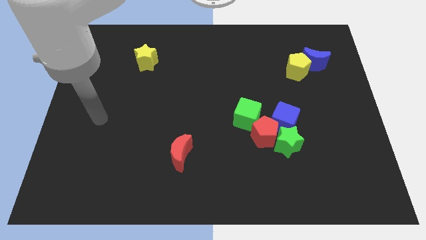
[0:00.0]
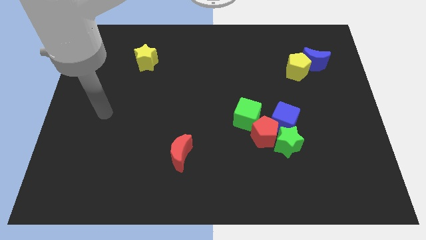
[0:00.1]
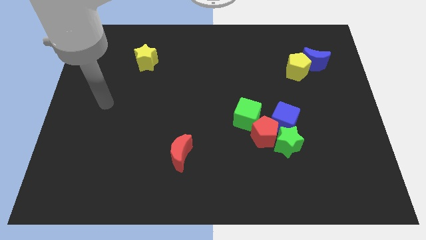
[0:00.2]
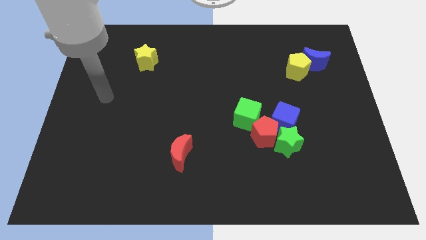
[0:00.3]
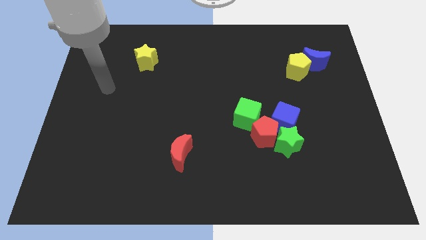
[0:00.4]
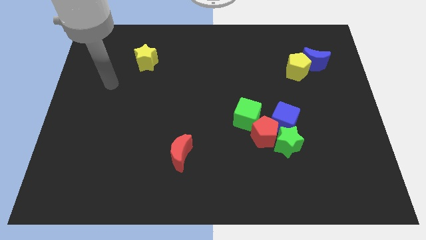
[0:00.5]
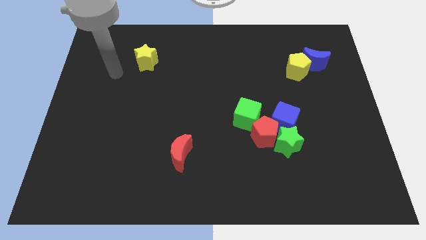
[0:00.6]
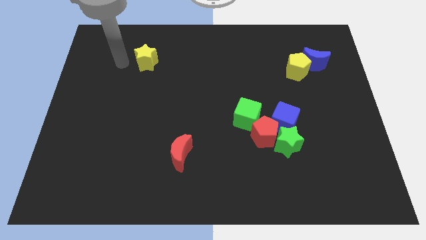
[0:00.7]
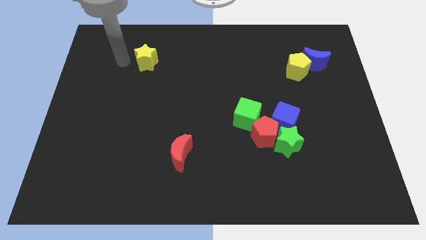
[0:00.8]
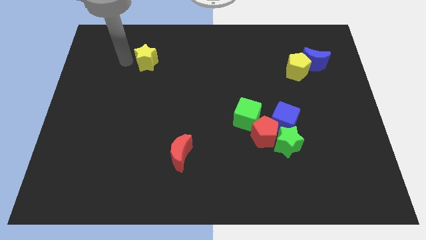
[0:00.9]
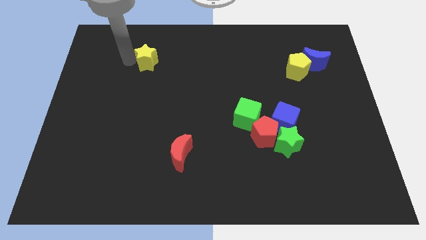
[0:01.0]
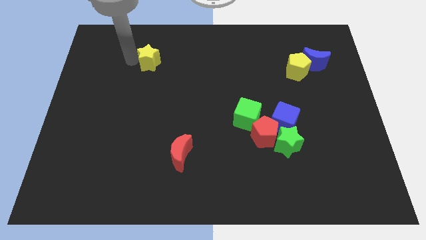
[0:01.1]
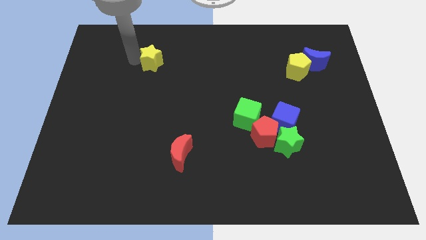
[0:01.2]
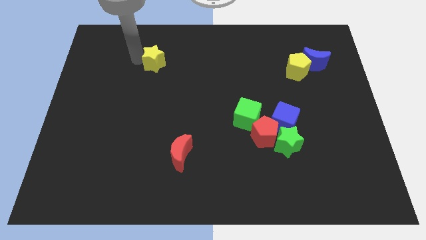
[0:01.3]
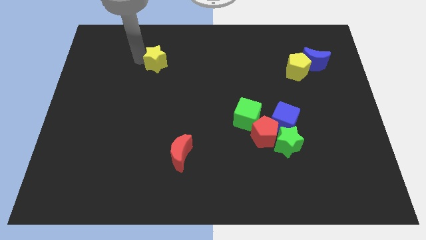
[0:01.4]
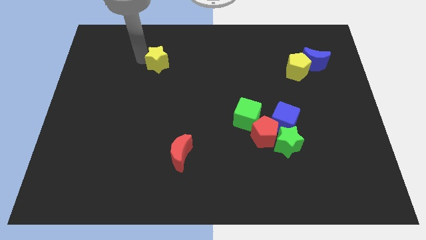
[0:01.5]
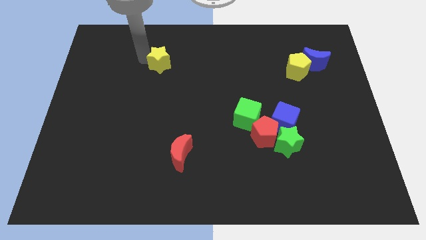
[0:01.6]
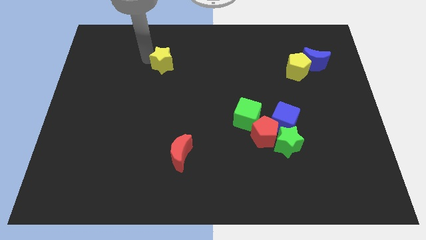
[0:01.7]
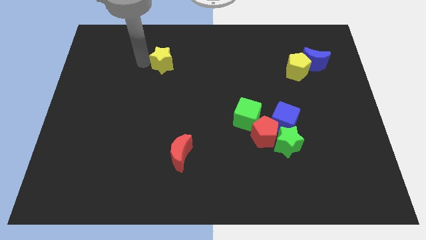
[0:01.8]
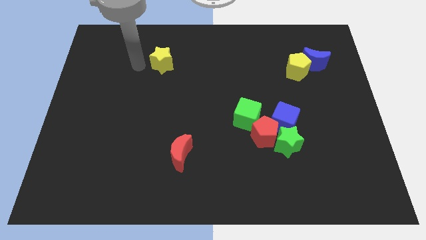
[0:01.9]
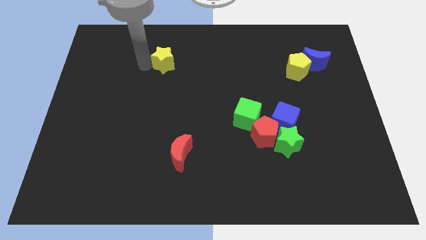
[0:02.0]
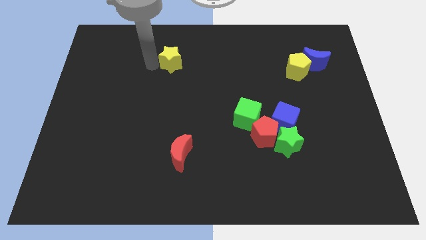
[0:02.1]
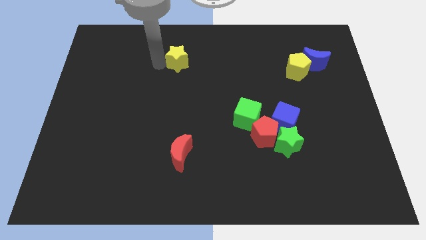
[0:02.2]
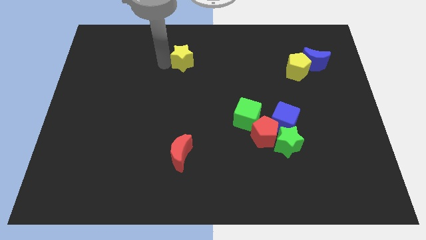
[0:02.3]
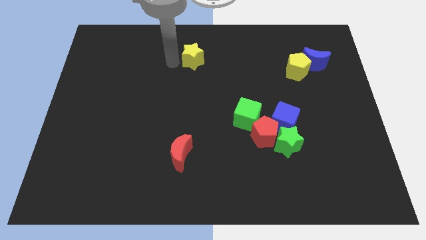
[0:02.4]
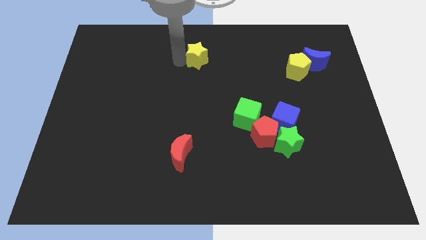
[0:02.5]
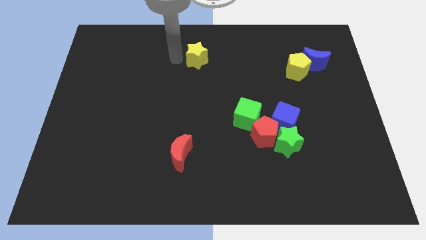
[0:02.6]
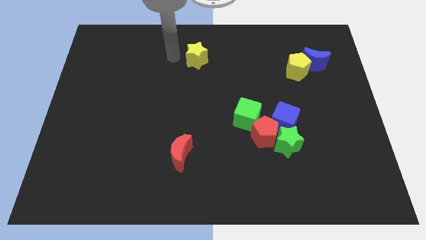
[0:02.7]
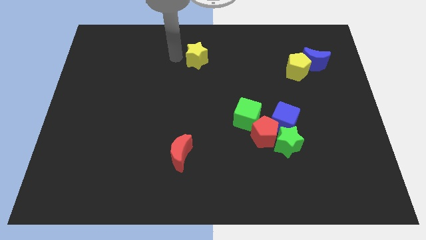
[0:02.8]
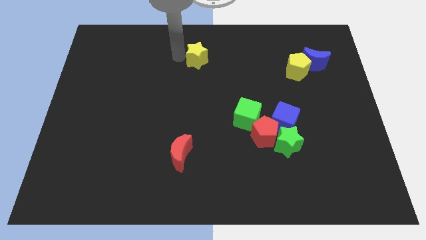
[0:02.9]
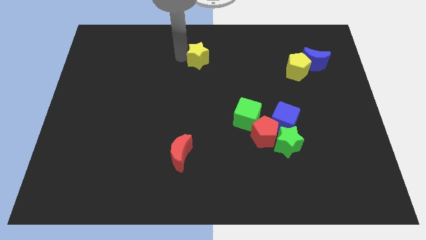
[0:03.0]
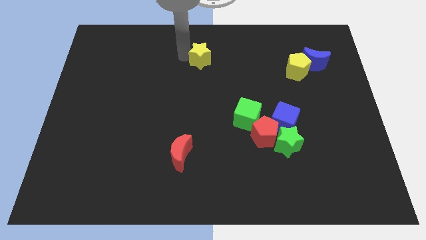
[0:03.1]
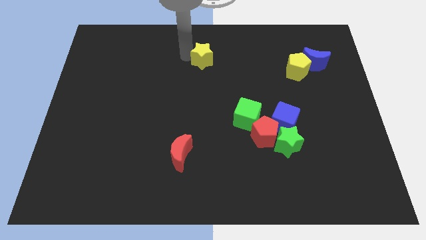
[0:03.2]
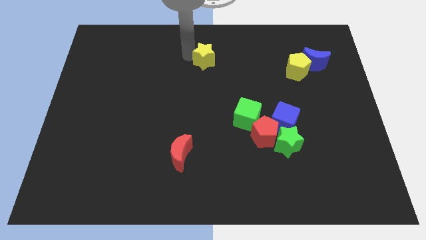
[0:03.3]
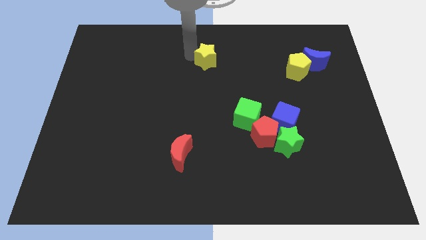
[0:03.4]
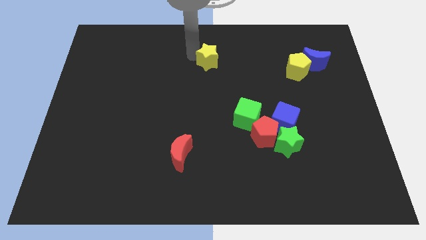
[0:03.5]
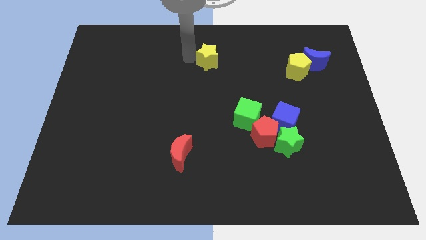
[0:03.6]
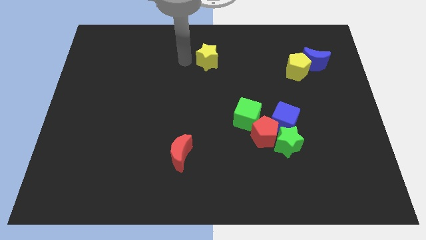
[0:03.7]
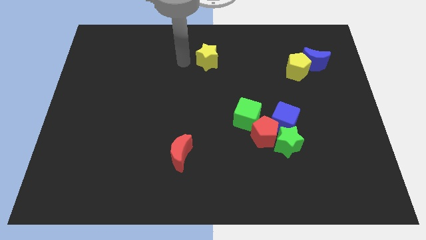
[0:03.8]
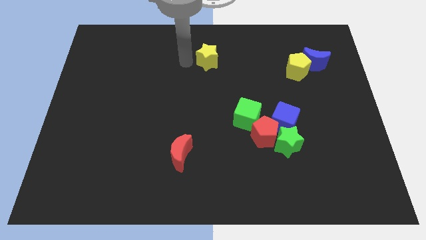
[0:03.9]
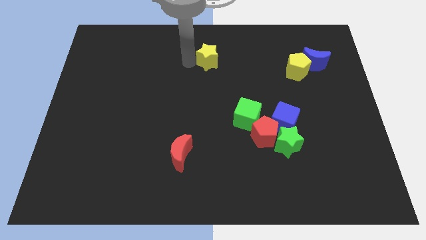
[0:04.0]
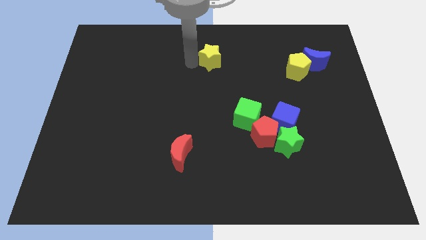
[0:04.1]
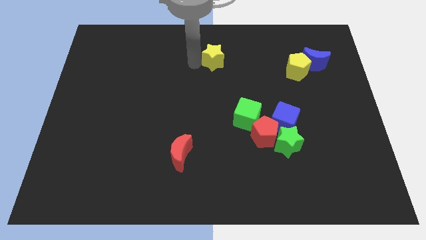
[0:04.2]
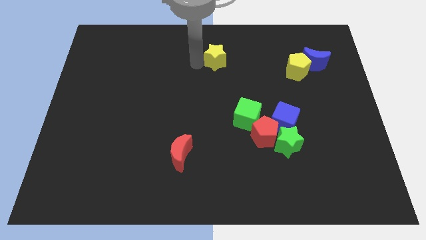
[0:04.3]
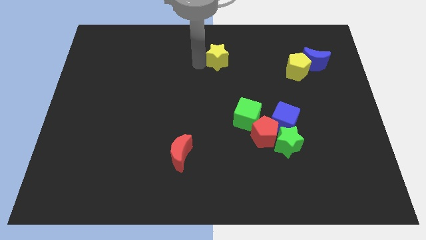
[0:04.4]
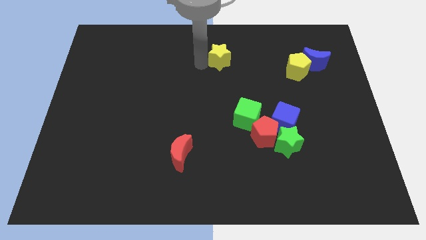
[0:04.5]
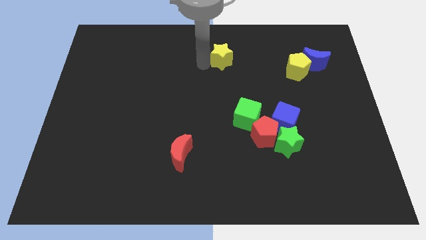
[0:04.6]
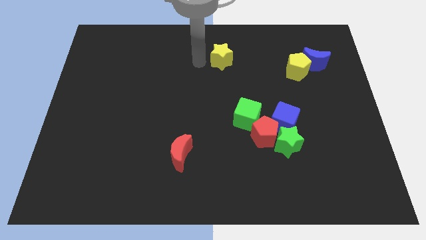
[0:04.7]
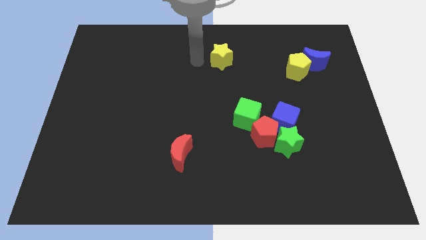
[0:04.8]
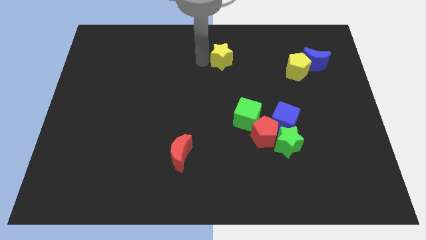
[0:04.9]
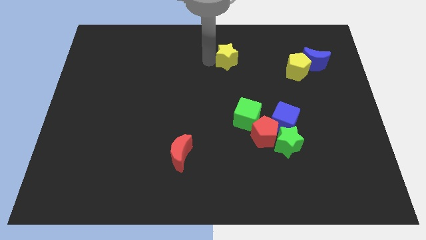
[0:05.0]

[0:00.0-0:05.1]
push the yellow star right

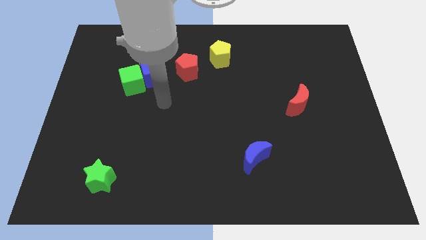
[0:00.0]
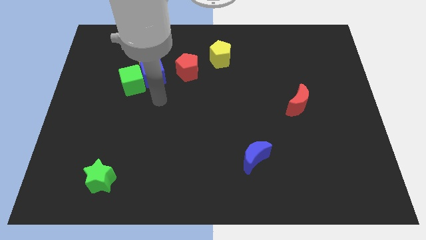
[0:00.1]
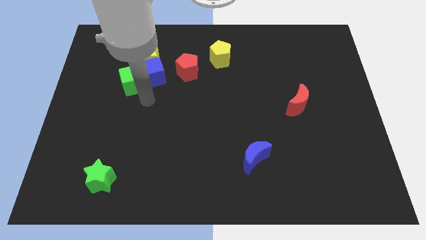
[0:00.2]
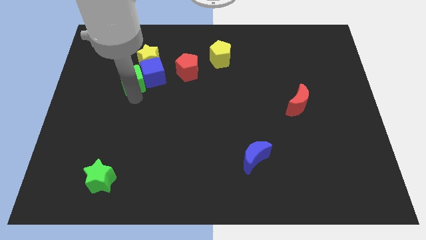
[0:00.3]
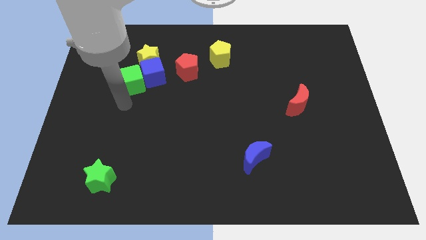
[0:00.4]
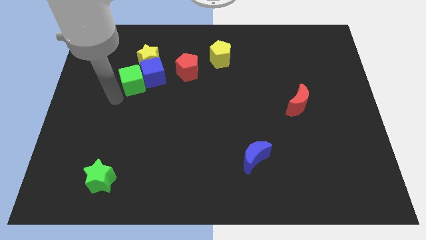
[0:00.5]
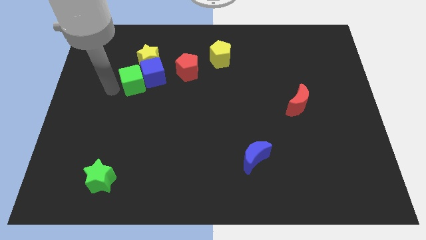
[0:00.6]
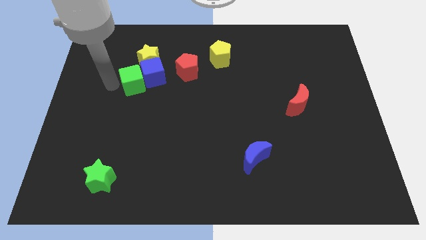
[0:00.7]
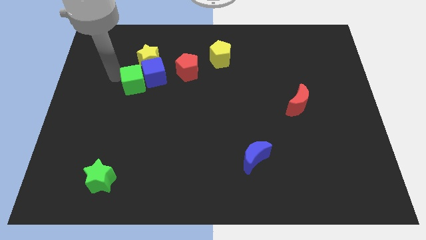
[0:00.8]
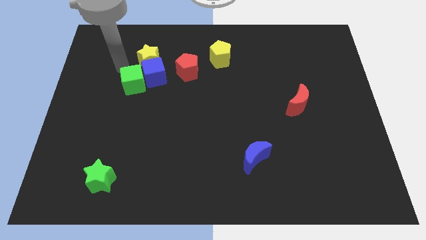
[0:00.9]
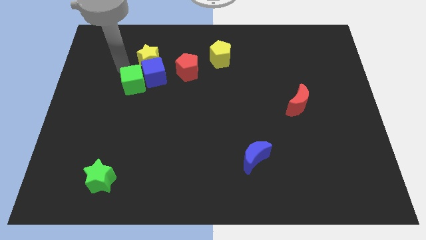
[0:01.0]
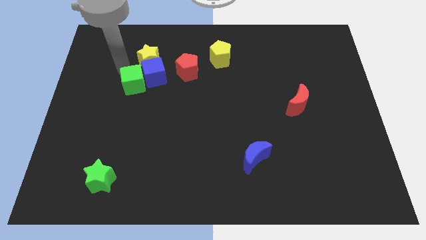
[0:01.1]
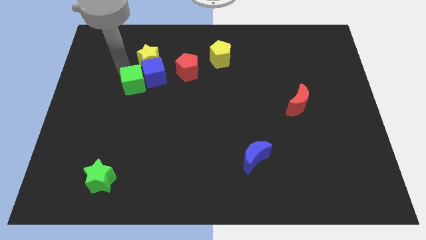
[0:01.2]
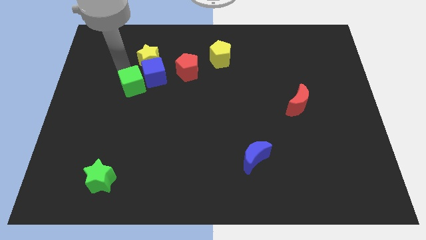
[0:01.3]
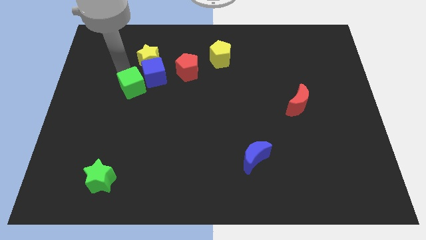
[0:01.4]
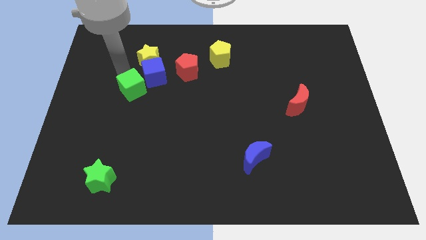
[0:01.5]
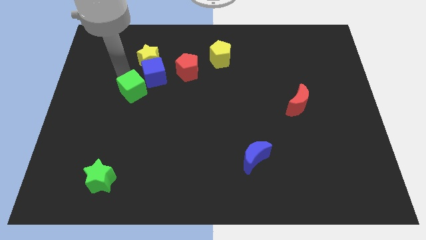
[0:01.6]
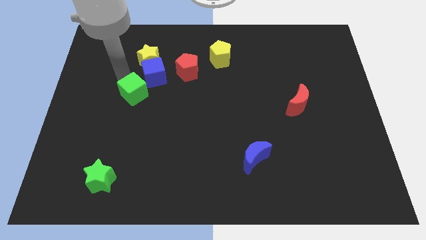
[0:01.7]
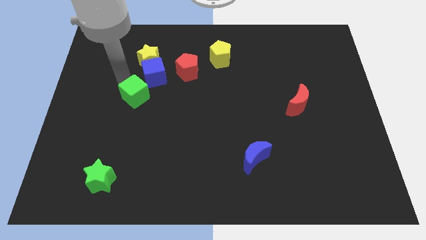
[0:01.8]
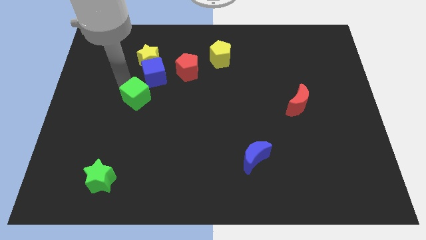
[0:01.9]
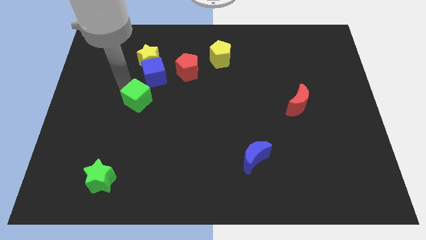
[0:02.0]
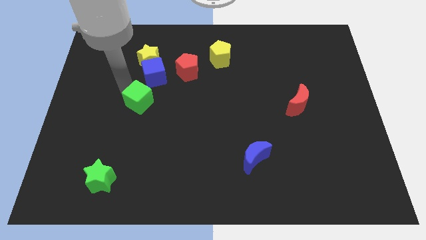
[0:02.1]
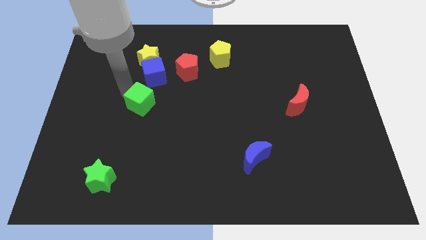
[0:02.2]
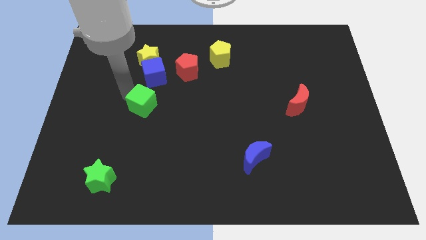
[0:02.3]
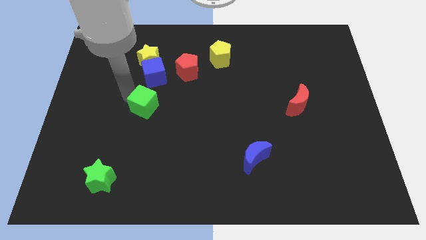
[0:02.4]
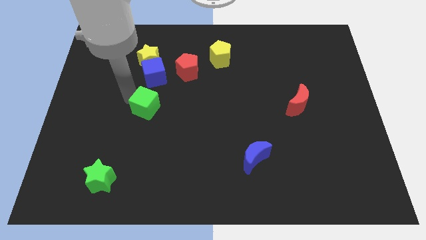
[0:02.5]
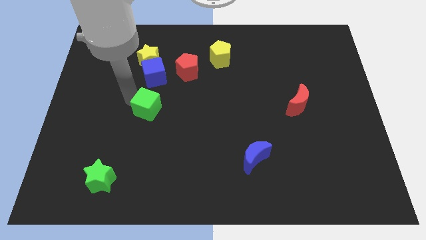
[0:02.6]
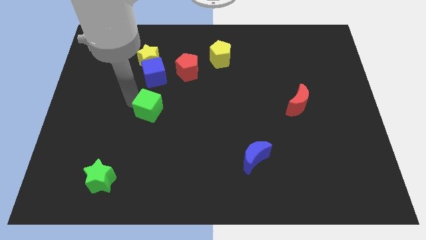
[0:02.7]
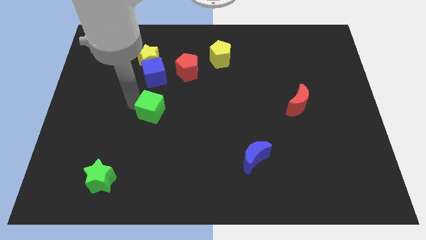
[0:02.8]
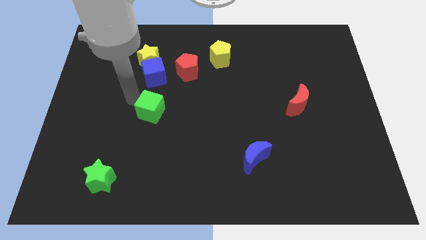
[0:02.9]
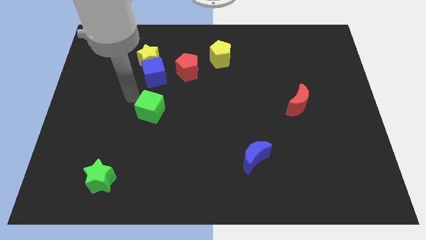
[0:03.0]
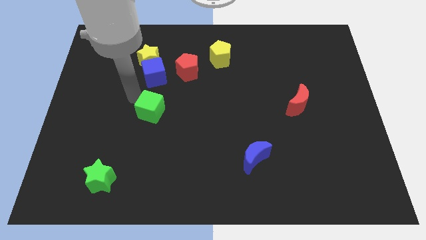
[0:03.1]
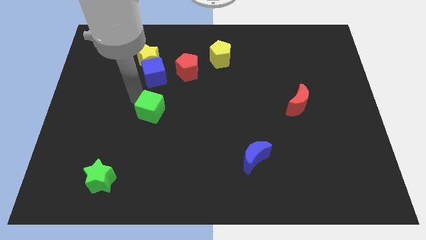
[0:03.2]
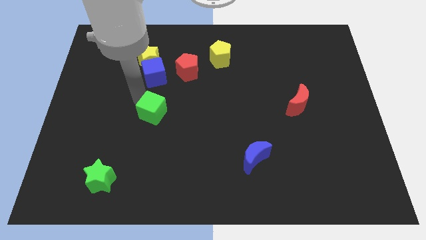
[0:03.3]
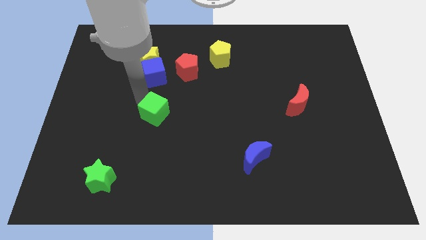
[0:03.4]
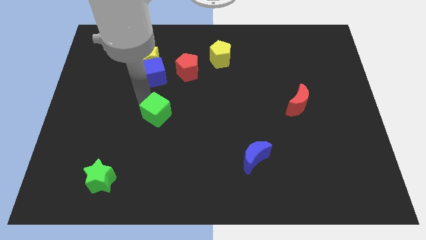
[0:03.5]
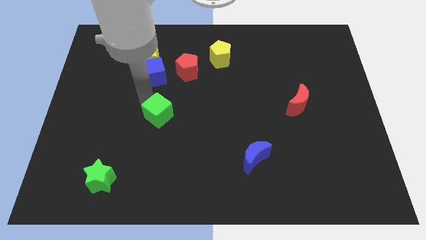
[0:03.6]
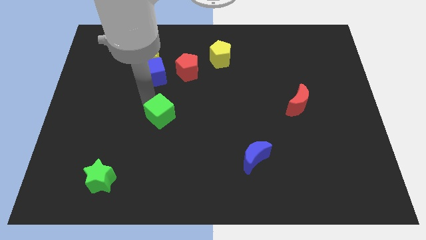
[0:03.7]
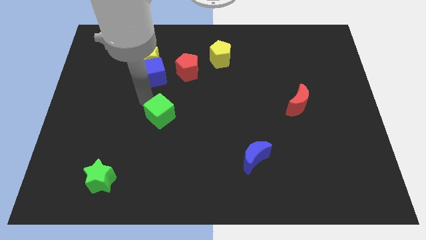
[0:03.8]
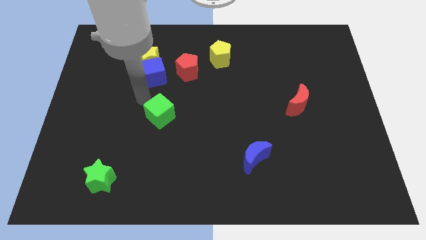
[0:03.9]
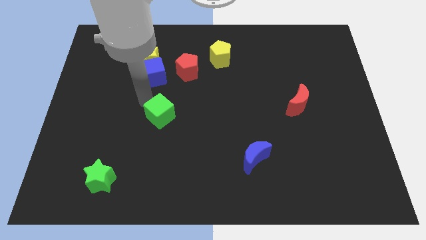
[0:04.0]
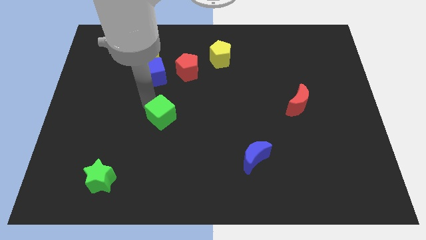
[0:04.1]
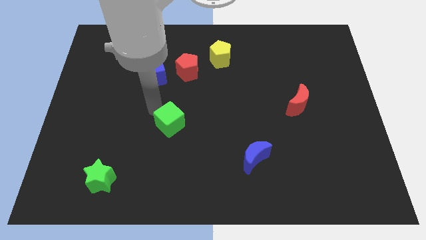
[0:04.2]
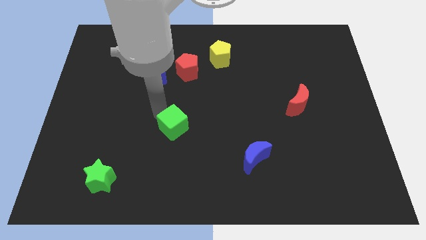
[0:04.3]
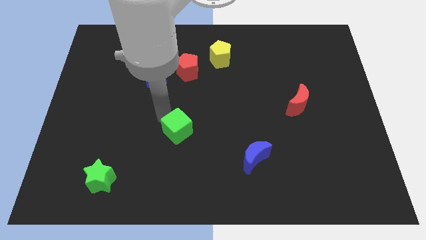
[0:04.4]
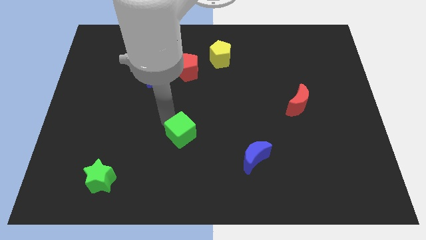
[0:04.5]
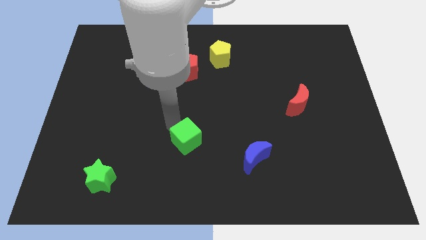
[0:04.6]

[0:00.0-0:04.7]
slide the green cube downwards and right diagonally
